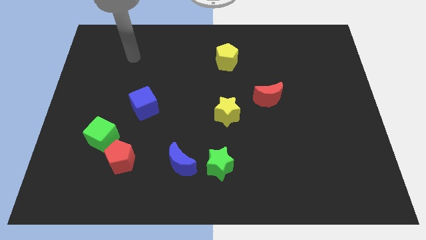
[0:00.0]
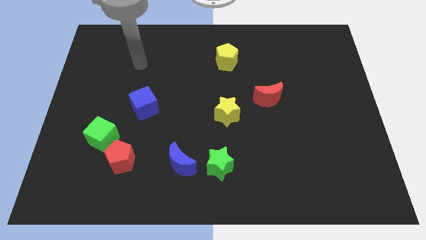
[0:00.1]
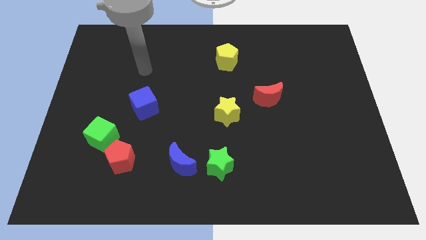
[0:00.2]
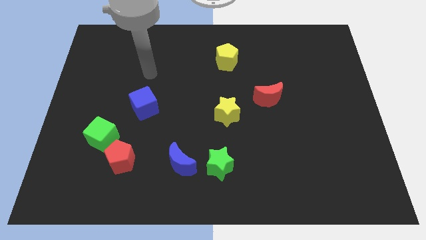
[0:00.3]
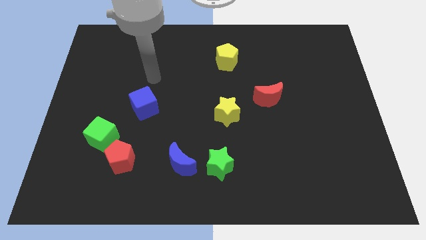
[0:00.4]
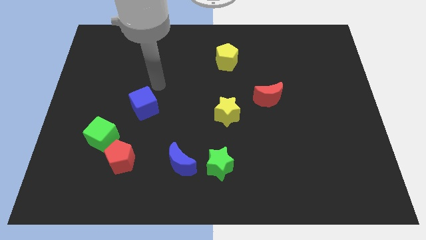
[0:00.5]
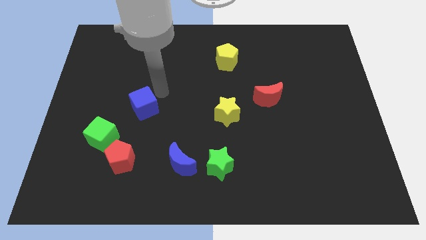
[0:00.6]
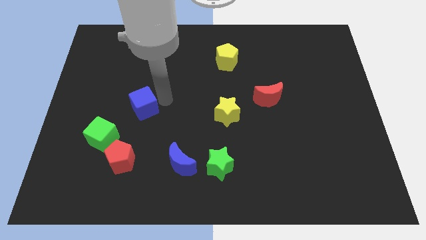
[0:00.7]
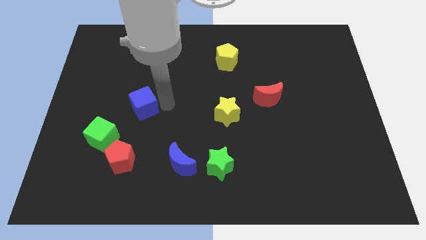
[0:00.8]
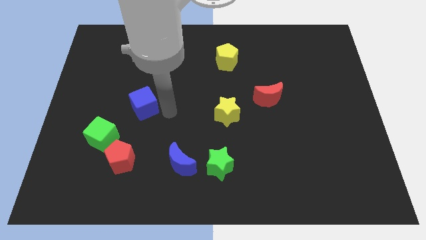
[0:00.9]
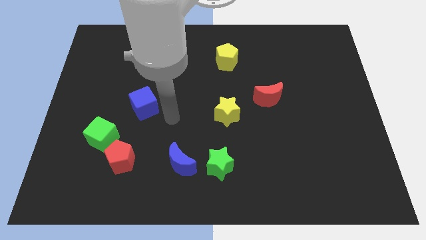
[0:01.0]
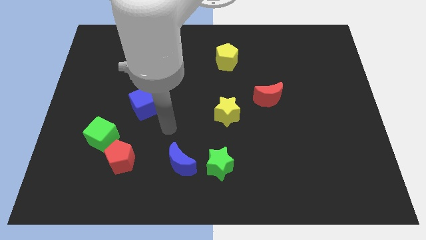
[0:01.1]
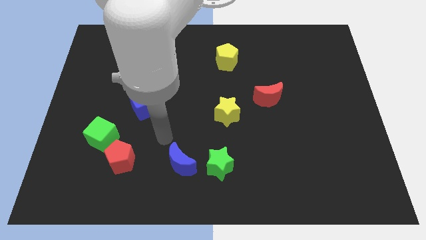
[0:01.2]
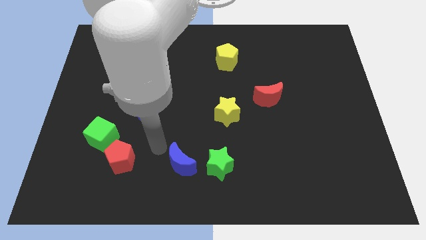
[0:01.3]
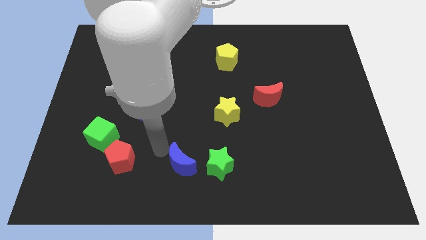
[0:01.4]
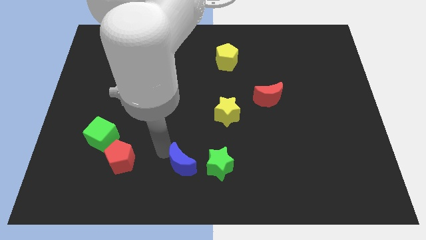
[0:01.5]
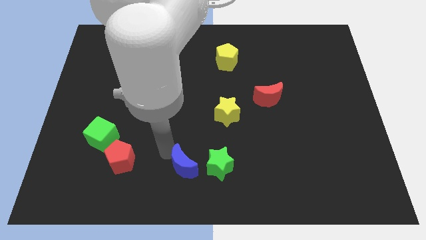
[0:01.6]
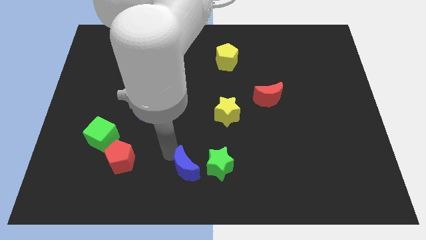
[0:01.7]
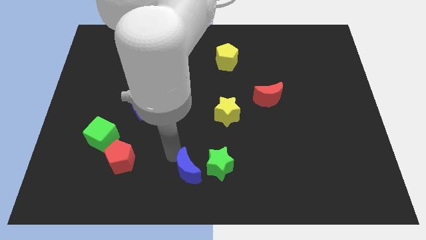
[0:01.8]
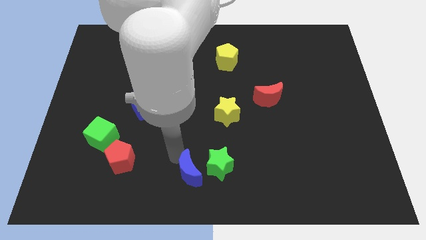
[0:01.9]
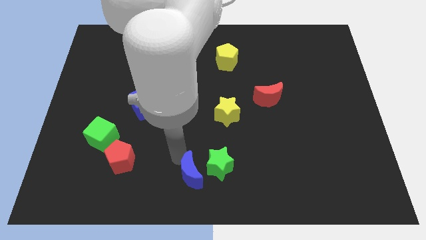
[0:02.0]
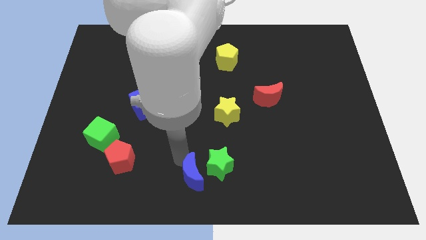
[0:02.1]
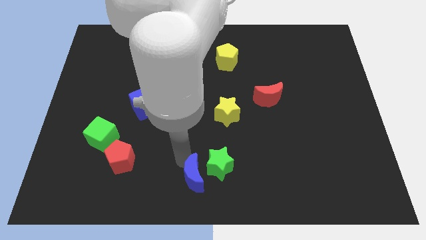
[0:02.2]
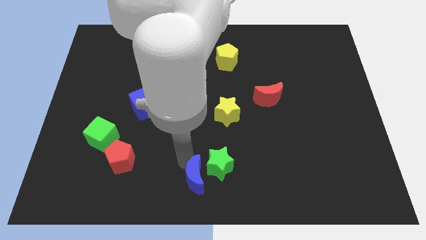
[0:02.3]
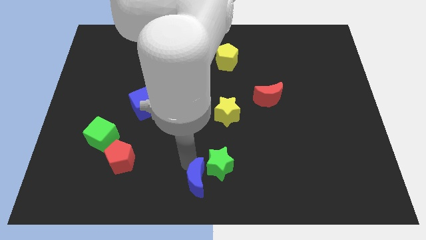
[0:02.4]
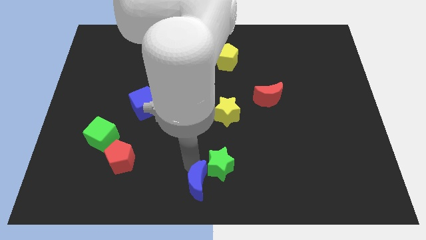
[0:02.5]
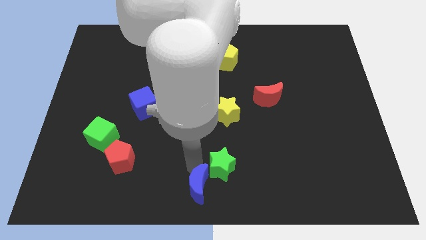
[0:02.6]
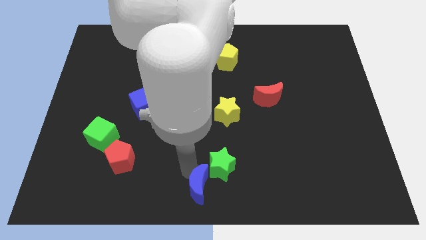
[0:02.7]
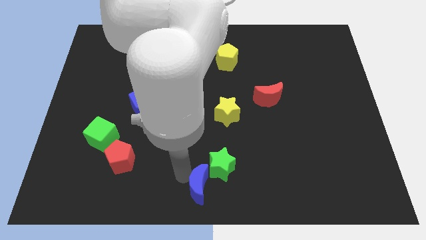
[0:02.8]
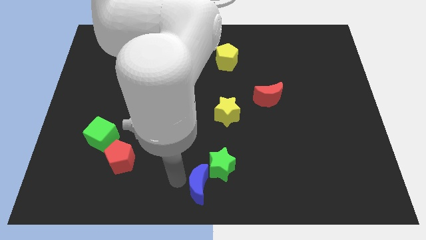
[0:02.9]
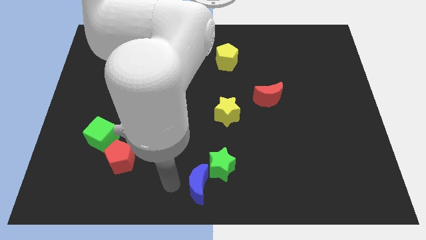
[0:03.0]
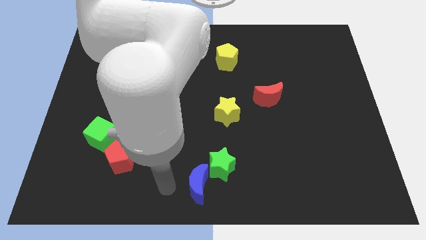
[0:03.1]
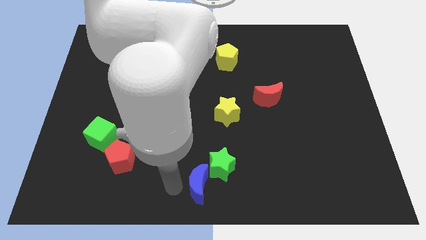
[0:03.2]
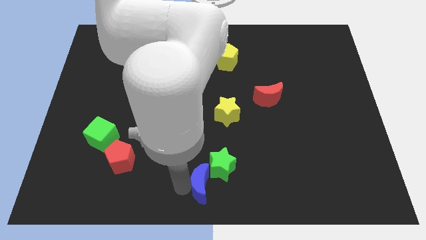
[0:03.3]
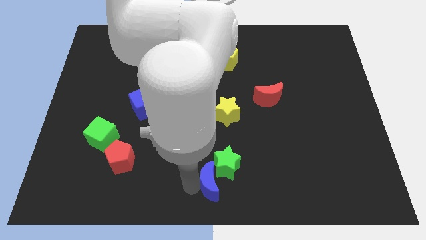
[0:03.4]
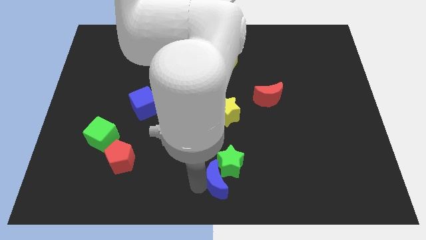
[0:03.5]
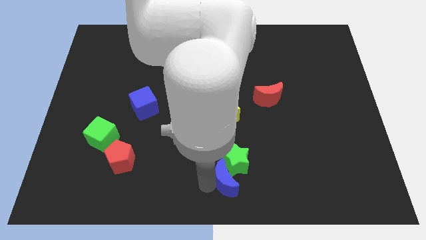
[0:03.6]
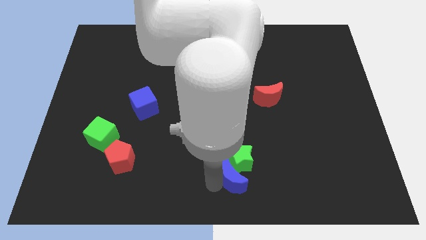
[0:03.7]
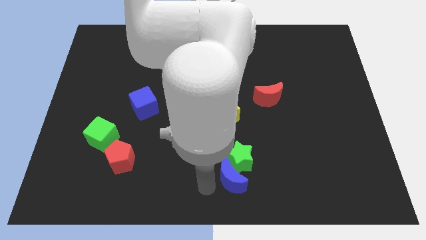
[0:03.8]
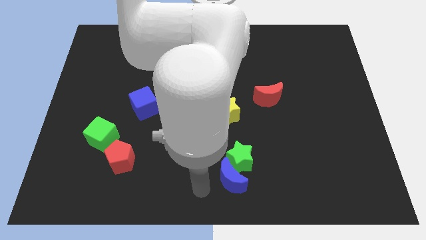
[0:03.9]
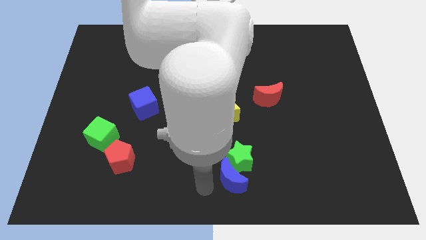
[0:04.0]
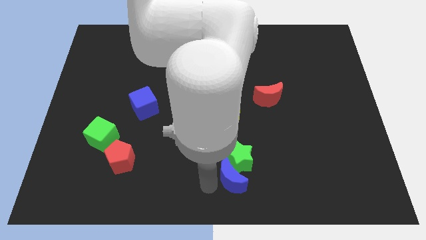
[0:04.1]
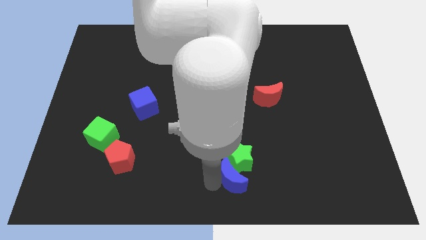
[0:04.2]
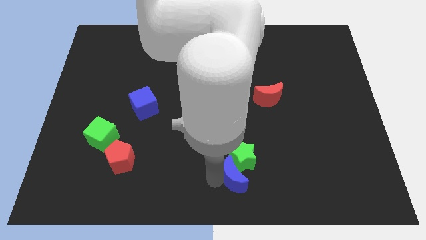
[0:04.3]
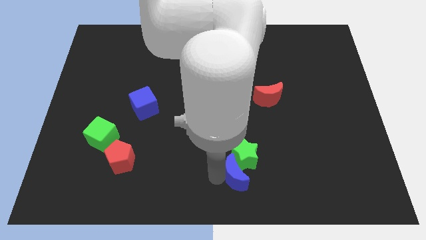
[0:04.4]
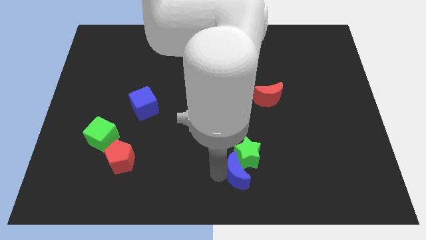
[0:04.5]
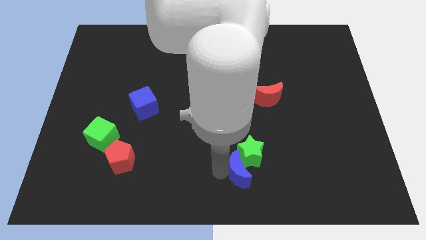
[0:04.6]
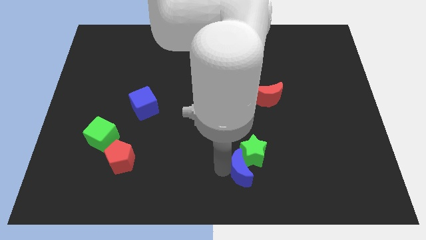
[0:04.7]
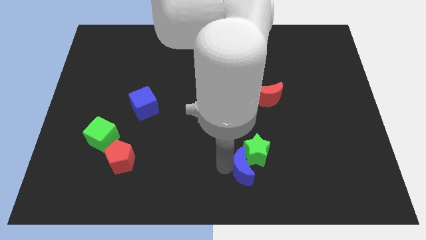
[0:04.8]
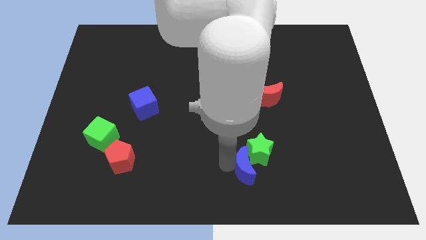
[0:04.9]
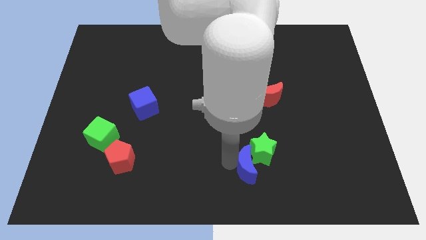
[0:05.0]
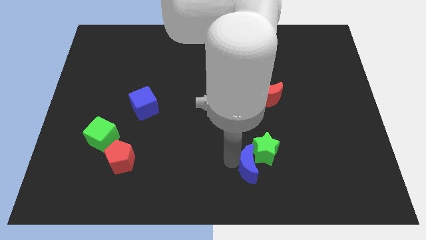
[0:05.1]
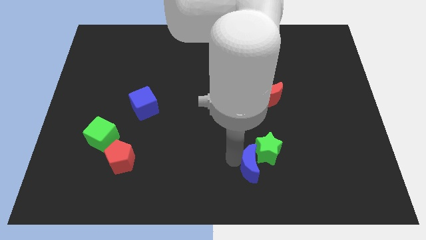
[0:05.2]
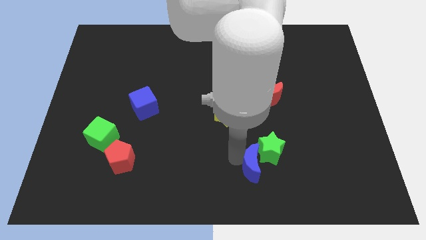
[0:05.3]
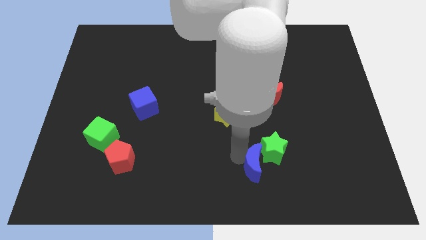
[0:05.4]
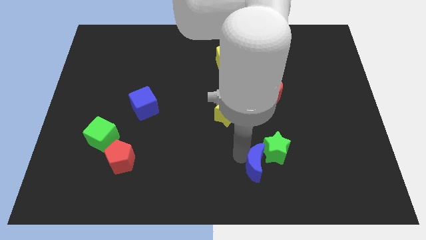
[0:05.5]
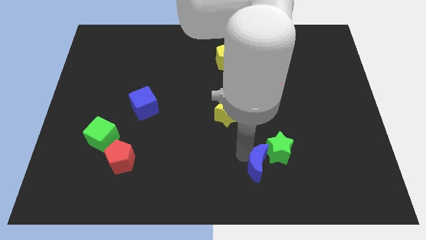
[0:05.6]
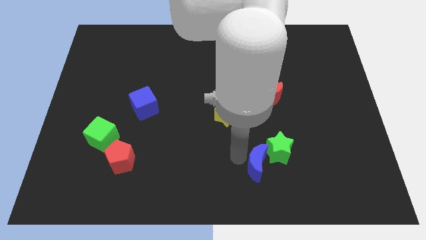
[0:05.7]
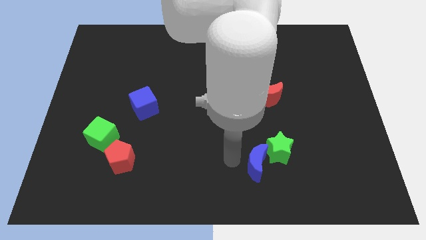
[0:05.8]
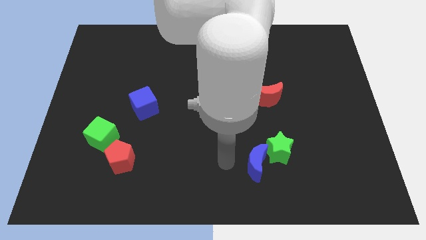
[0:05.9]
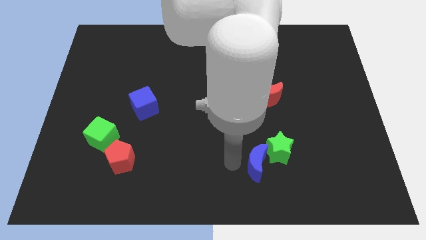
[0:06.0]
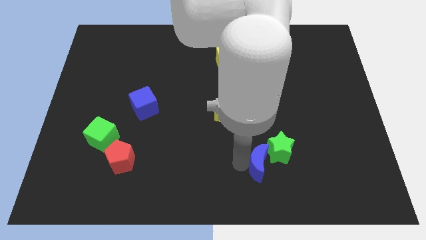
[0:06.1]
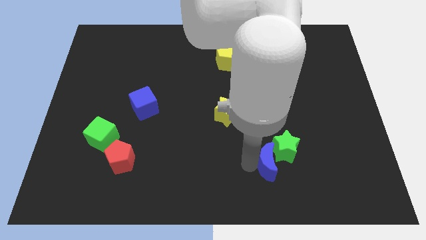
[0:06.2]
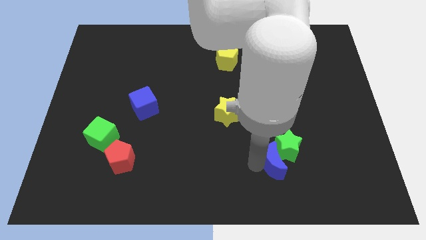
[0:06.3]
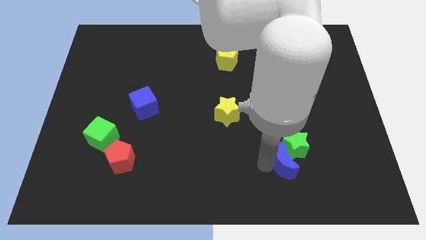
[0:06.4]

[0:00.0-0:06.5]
slide the blue moon right

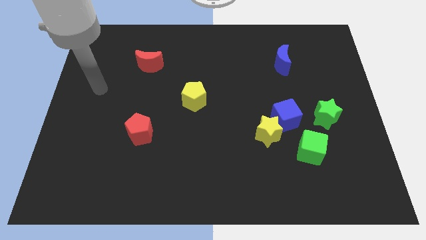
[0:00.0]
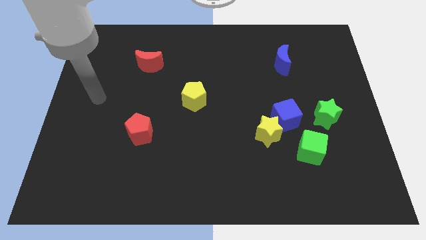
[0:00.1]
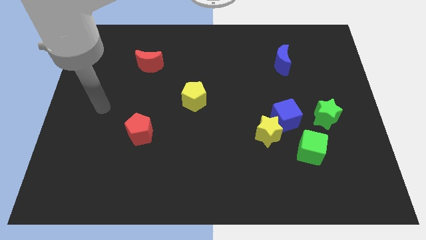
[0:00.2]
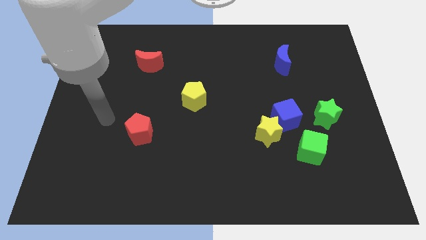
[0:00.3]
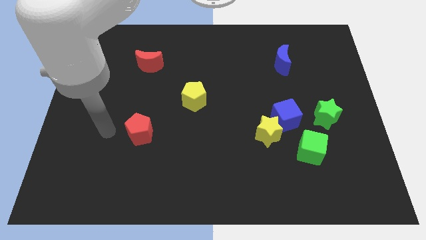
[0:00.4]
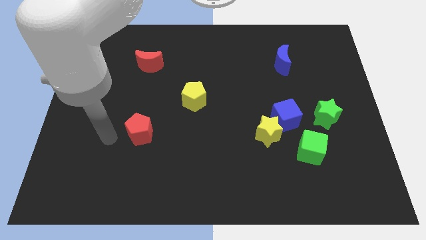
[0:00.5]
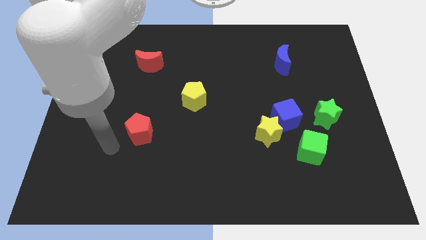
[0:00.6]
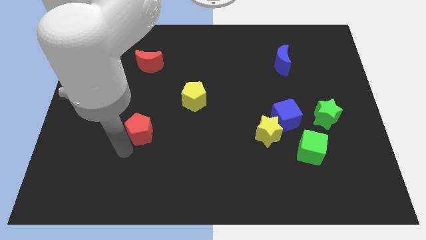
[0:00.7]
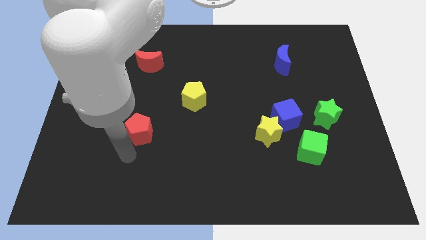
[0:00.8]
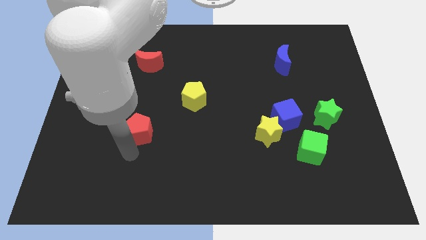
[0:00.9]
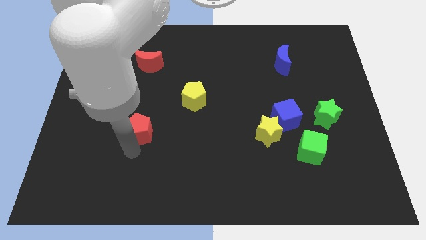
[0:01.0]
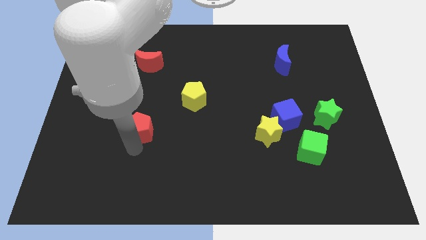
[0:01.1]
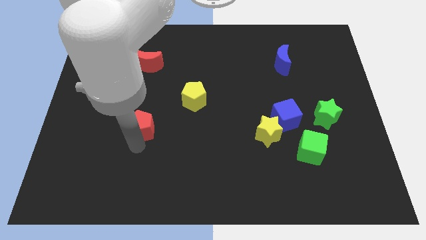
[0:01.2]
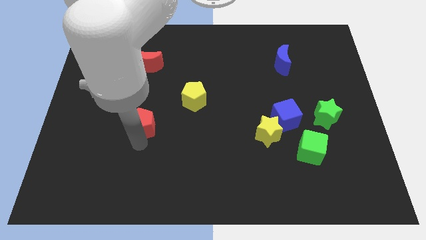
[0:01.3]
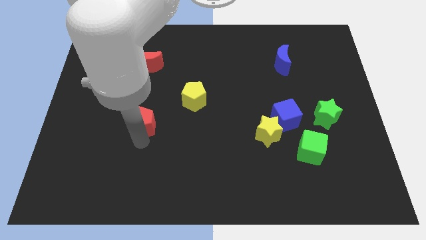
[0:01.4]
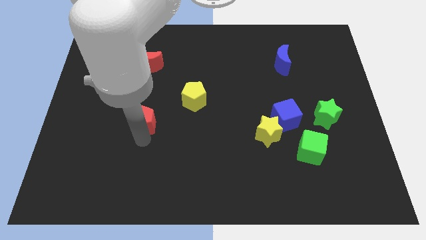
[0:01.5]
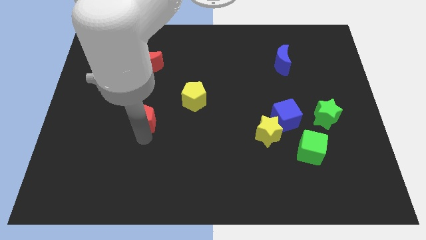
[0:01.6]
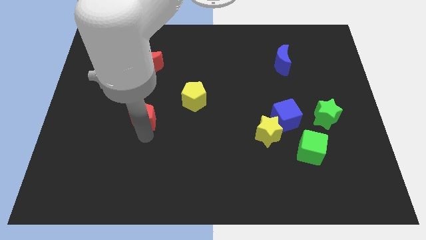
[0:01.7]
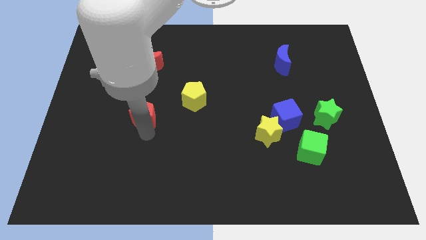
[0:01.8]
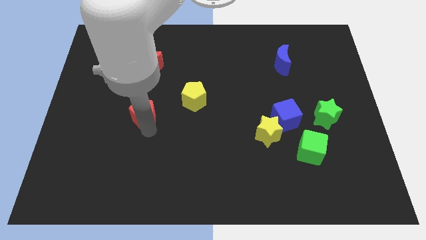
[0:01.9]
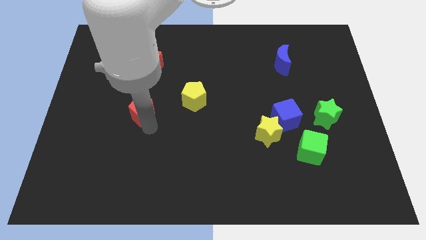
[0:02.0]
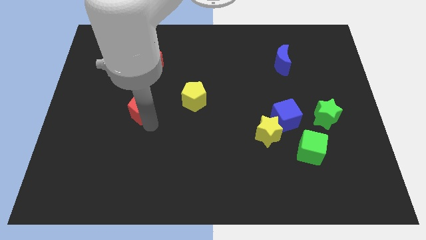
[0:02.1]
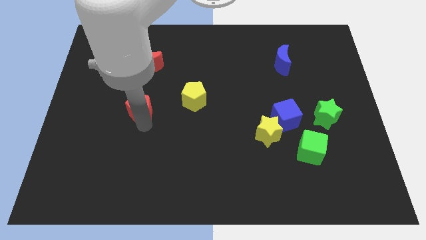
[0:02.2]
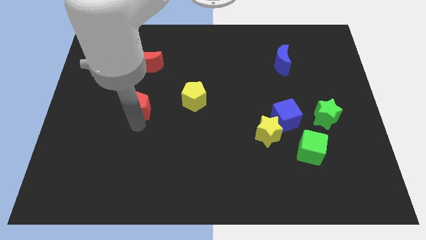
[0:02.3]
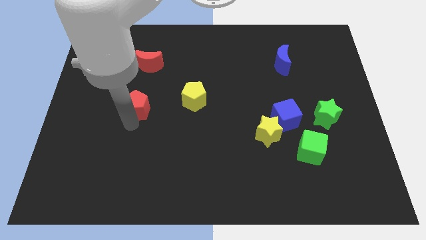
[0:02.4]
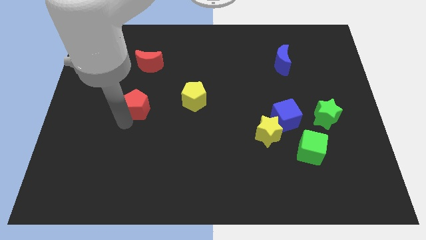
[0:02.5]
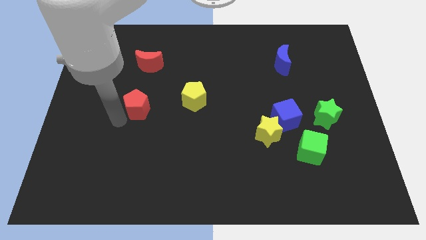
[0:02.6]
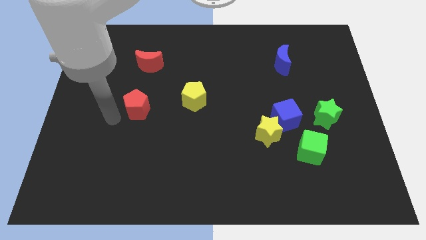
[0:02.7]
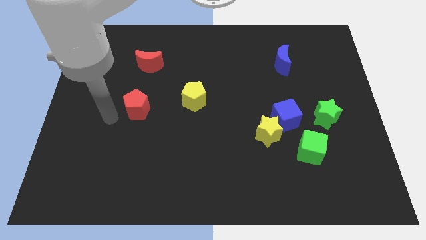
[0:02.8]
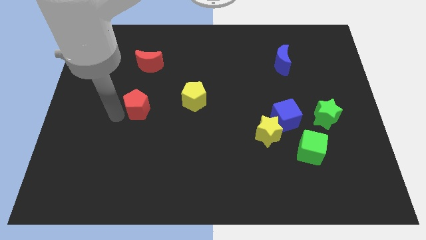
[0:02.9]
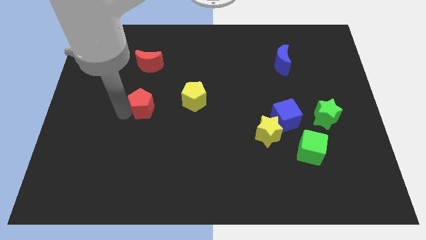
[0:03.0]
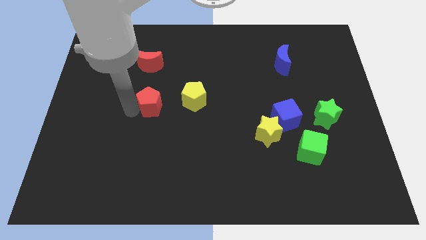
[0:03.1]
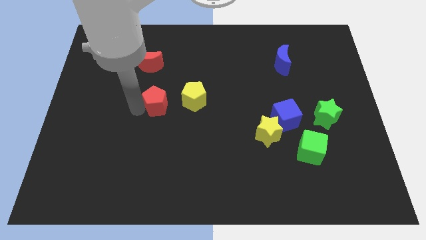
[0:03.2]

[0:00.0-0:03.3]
slightly push the red pentagon upwards and to the right
